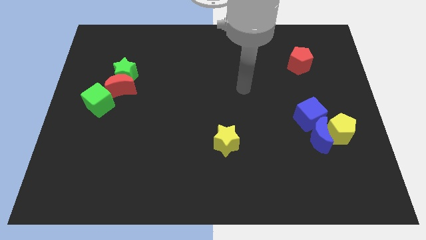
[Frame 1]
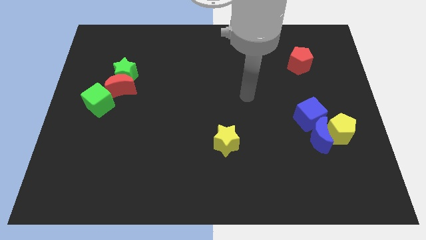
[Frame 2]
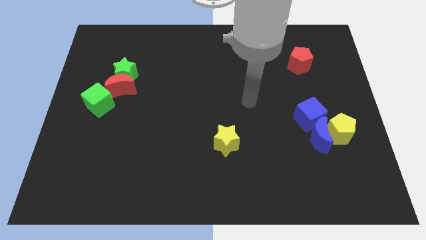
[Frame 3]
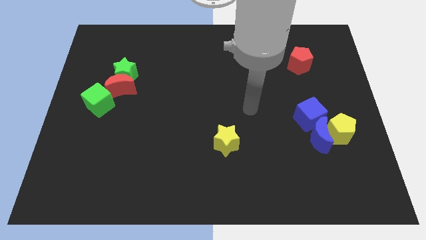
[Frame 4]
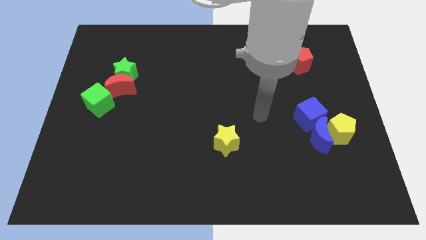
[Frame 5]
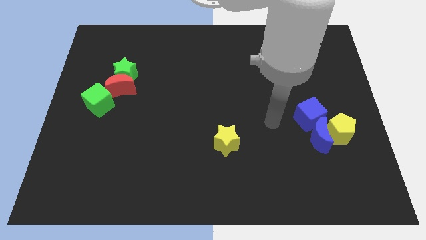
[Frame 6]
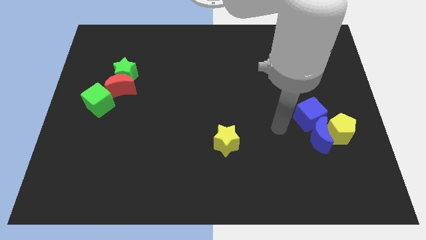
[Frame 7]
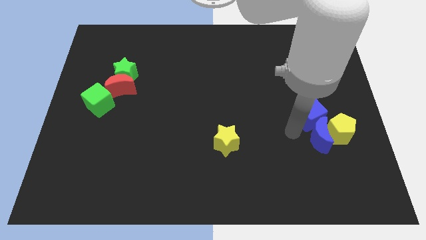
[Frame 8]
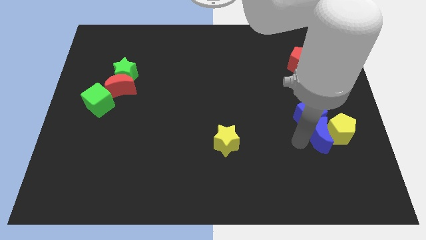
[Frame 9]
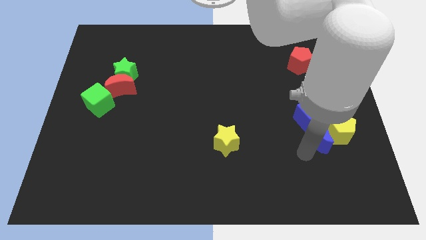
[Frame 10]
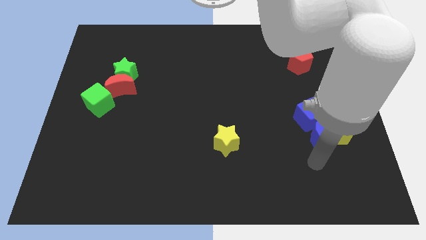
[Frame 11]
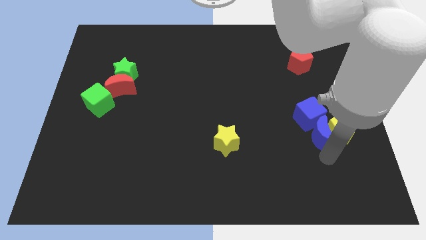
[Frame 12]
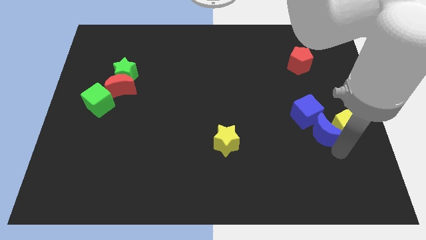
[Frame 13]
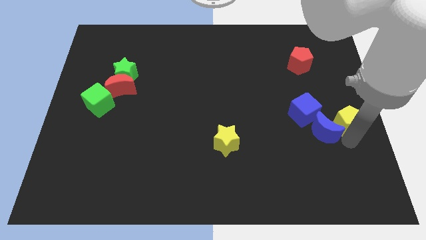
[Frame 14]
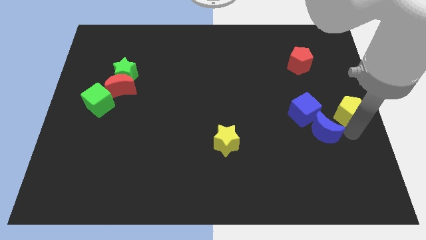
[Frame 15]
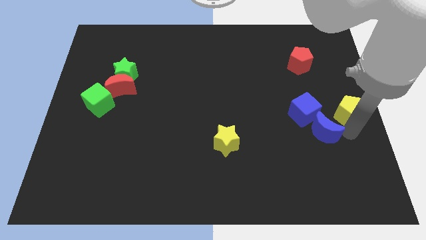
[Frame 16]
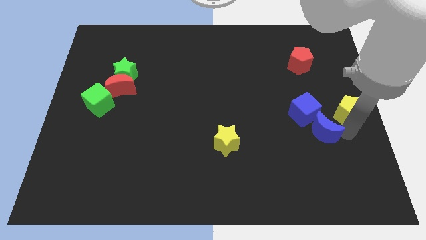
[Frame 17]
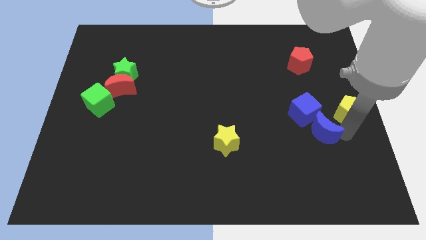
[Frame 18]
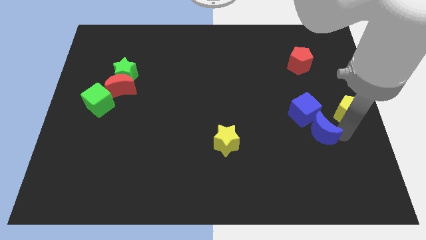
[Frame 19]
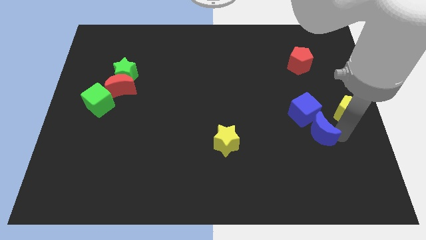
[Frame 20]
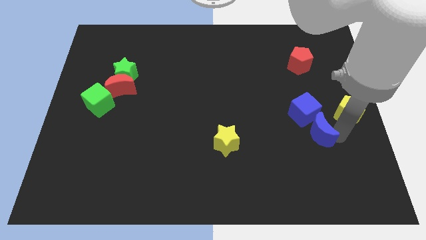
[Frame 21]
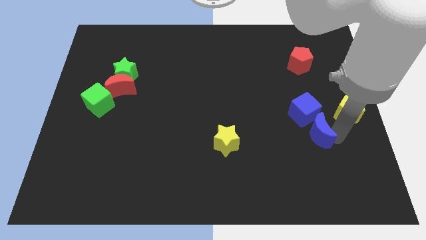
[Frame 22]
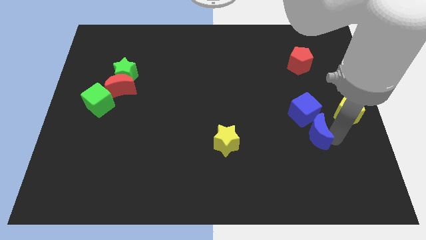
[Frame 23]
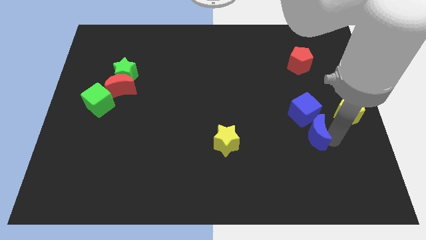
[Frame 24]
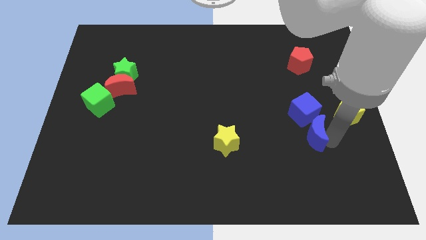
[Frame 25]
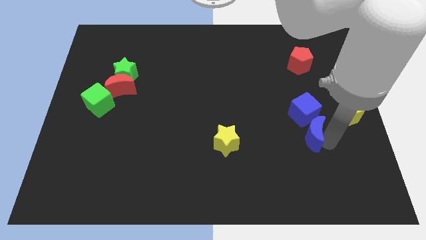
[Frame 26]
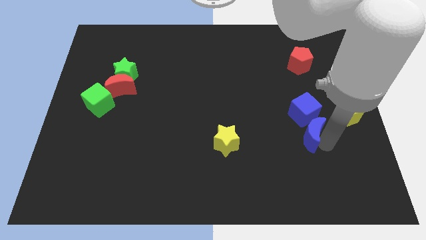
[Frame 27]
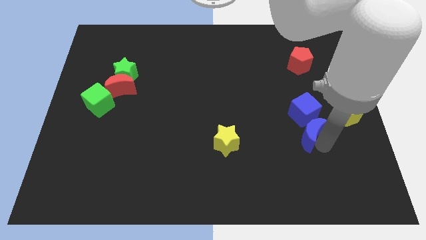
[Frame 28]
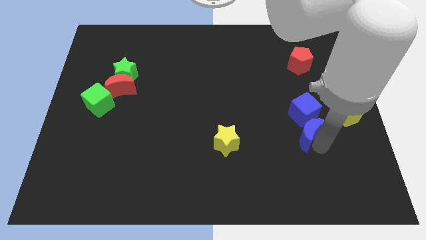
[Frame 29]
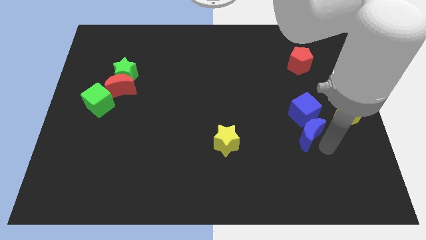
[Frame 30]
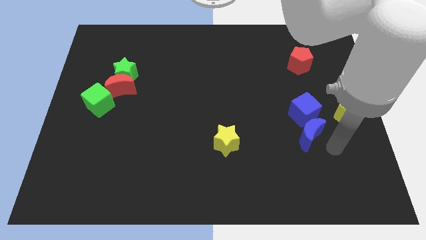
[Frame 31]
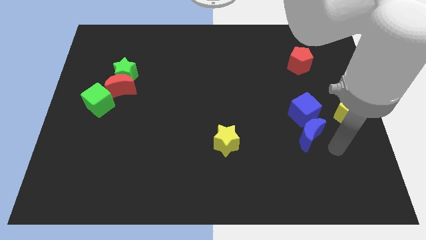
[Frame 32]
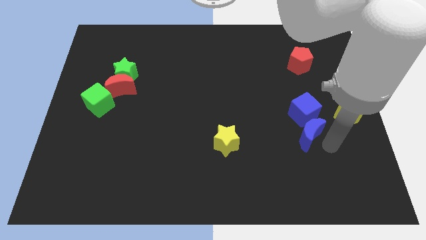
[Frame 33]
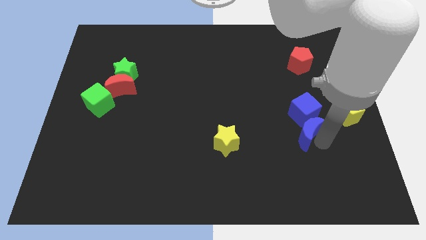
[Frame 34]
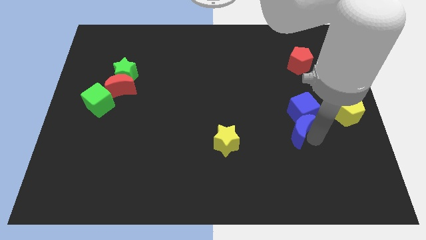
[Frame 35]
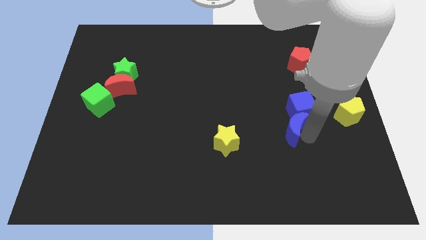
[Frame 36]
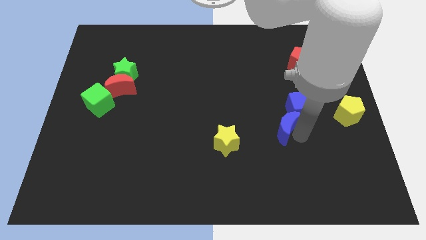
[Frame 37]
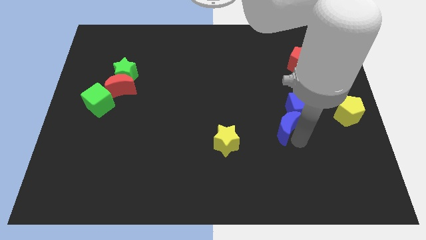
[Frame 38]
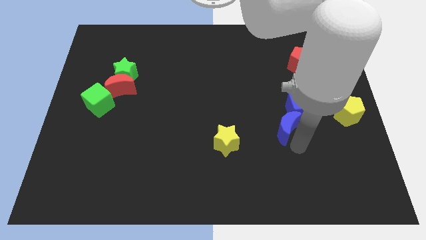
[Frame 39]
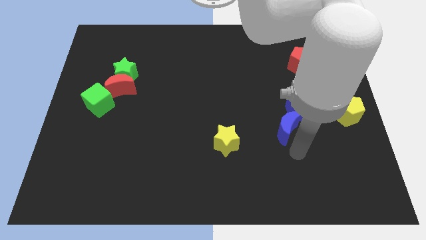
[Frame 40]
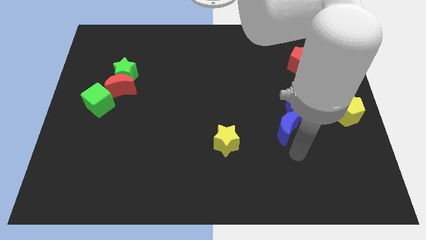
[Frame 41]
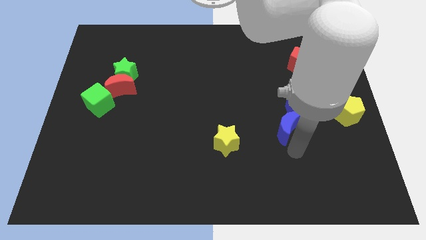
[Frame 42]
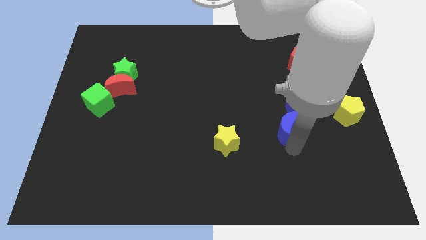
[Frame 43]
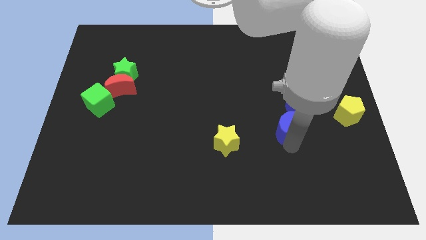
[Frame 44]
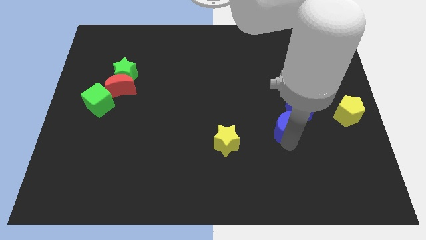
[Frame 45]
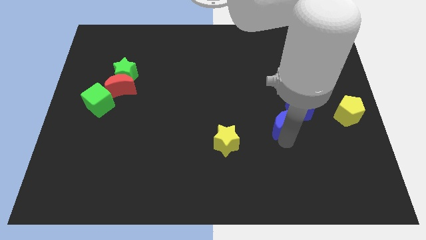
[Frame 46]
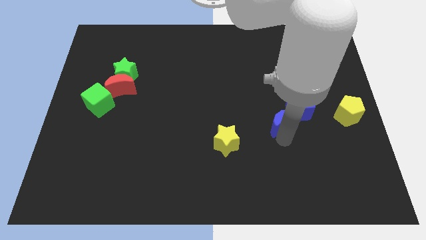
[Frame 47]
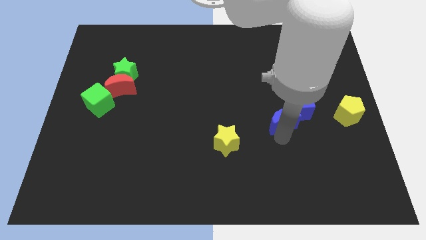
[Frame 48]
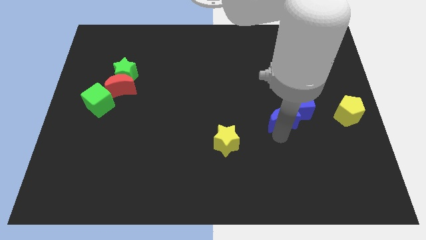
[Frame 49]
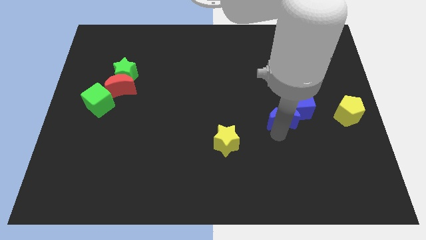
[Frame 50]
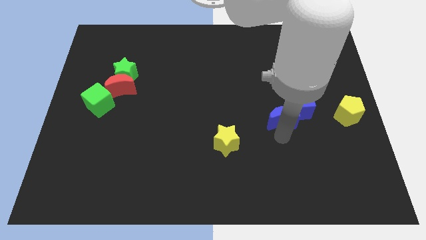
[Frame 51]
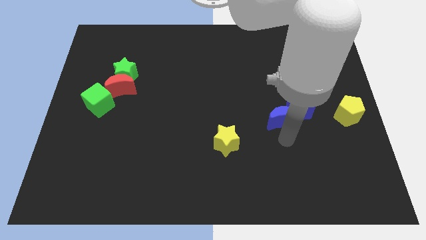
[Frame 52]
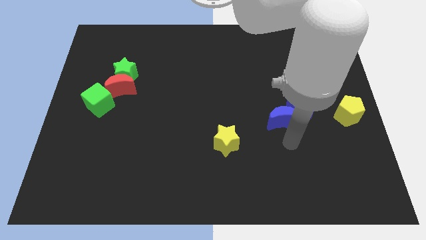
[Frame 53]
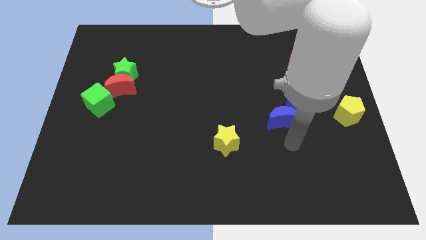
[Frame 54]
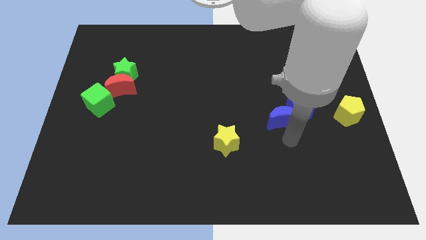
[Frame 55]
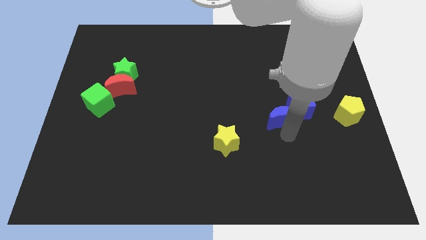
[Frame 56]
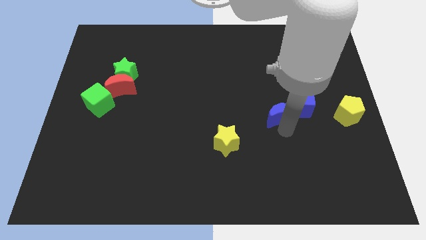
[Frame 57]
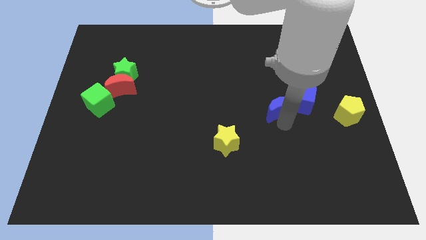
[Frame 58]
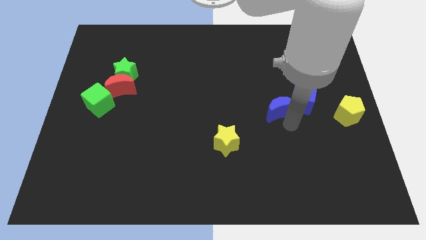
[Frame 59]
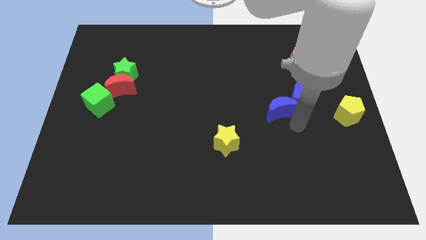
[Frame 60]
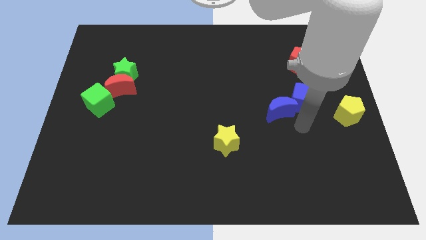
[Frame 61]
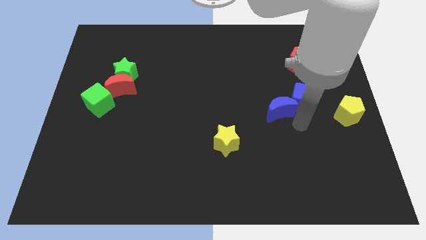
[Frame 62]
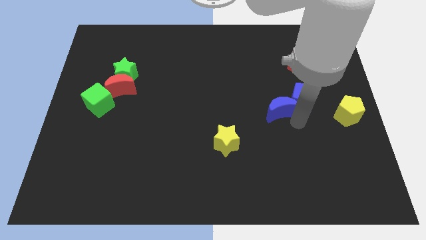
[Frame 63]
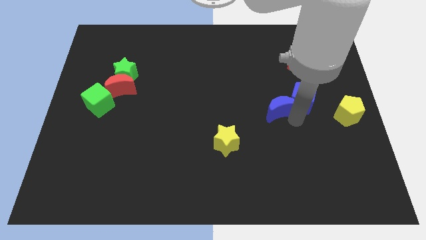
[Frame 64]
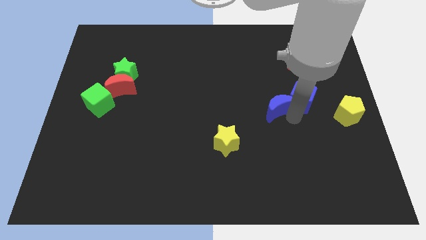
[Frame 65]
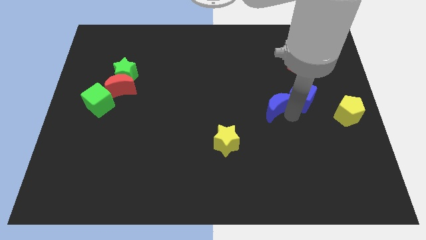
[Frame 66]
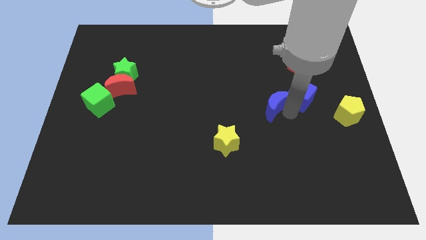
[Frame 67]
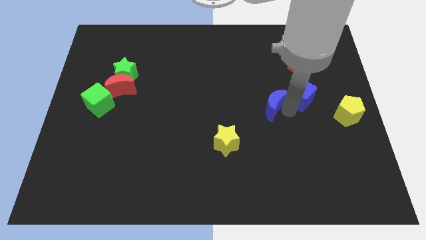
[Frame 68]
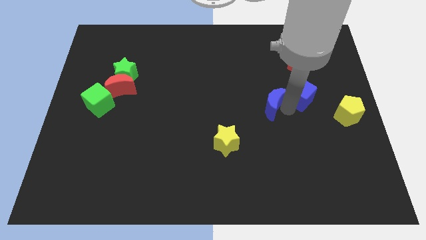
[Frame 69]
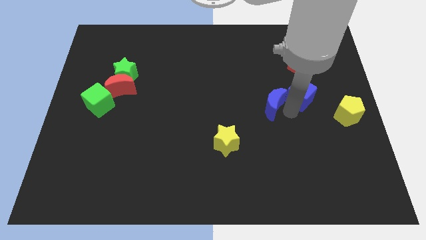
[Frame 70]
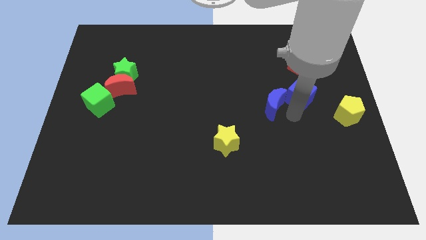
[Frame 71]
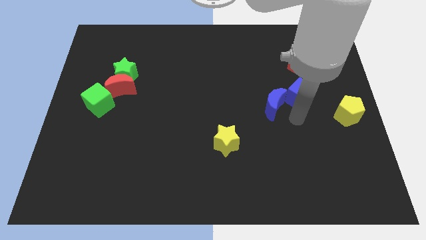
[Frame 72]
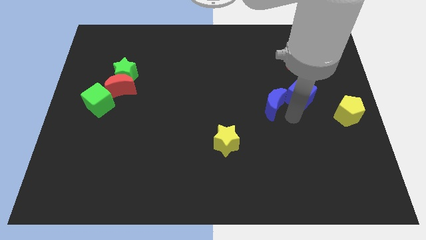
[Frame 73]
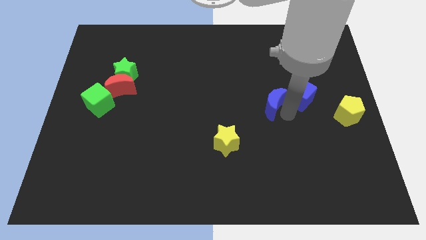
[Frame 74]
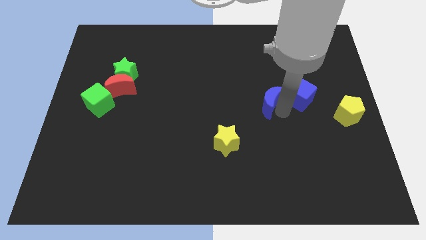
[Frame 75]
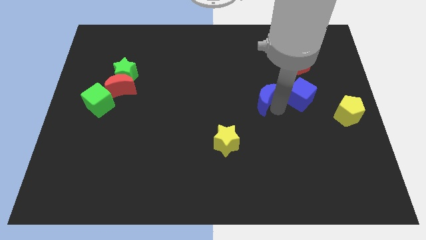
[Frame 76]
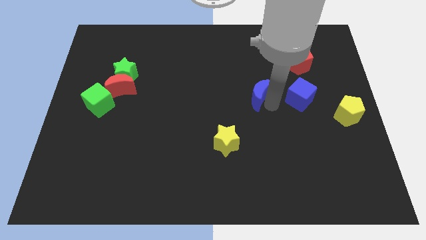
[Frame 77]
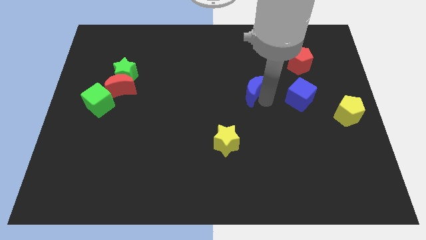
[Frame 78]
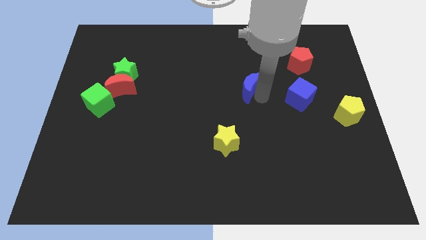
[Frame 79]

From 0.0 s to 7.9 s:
push the blue moon diagonally upwards and left

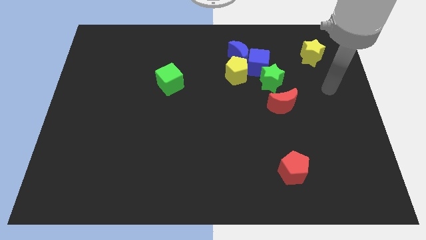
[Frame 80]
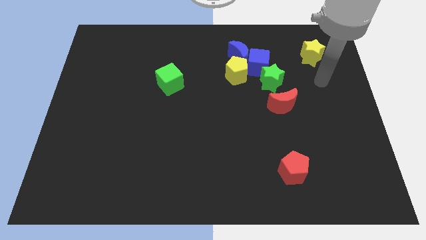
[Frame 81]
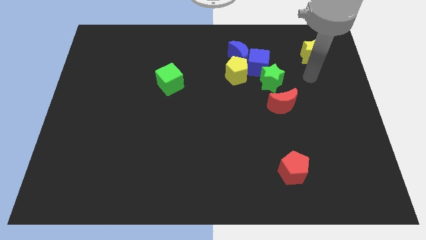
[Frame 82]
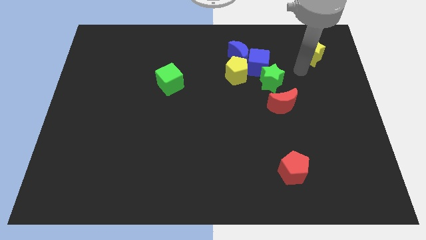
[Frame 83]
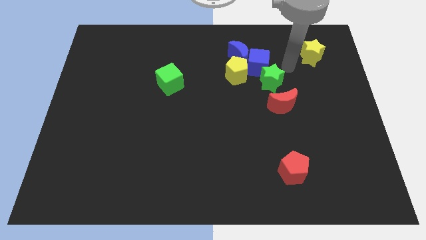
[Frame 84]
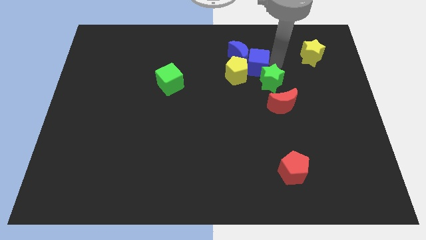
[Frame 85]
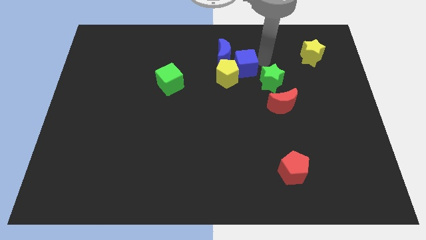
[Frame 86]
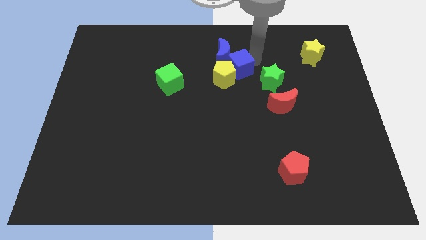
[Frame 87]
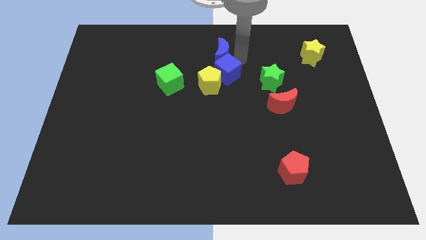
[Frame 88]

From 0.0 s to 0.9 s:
slightly push the yellow pentagon downwards and then to the left
